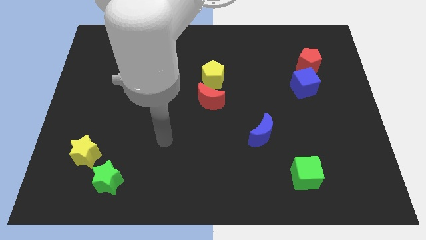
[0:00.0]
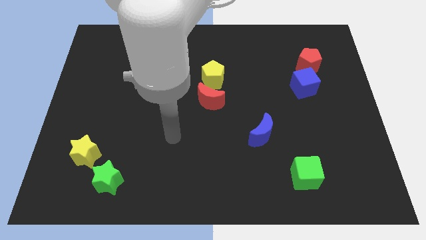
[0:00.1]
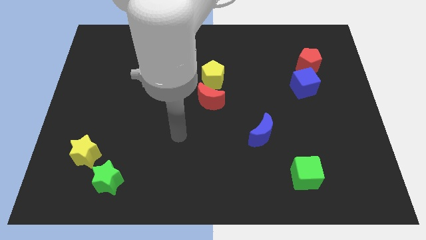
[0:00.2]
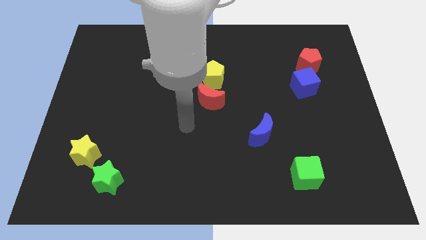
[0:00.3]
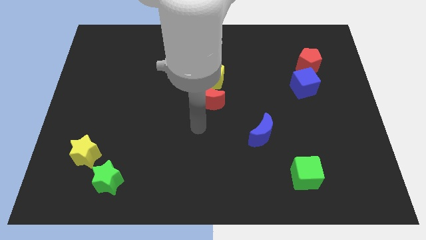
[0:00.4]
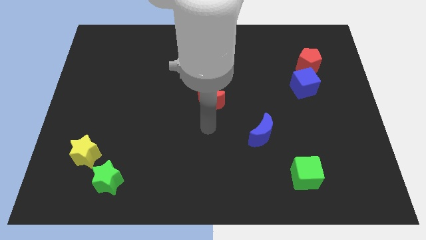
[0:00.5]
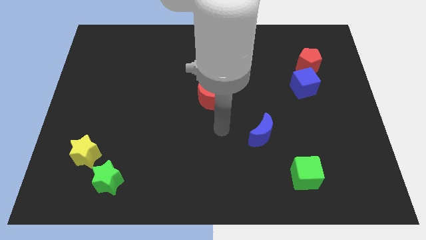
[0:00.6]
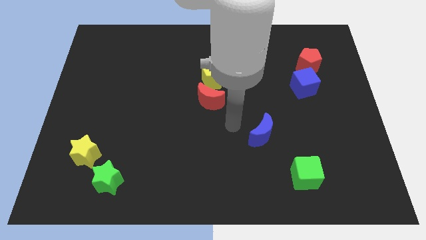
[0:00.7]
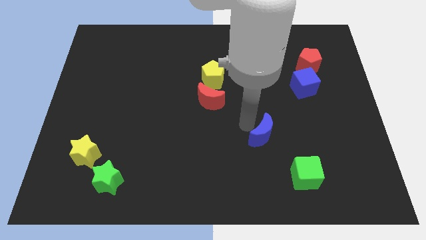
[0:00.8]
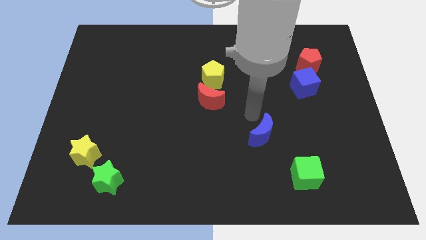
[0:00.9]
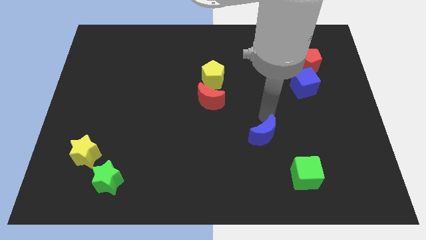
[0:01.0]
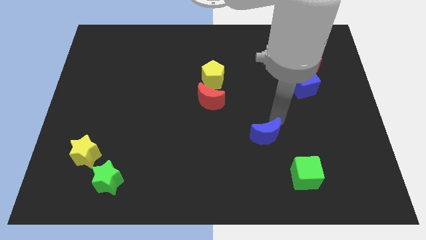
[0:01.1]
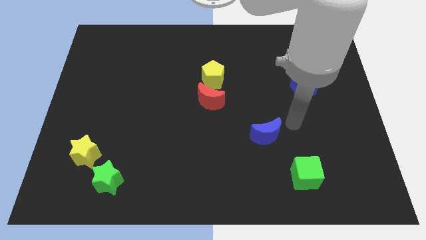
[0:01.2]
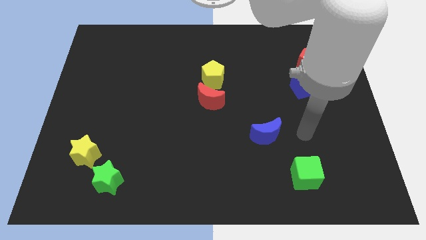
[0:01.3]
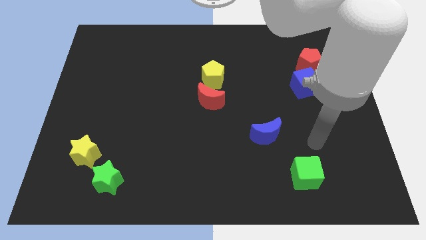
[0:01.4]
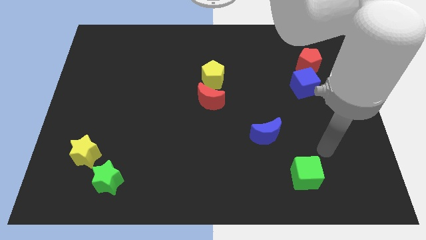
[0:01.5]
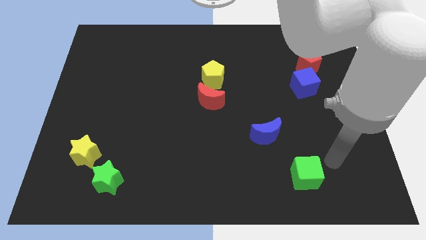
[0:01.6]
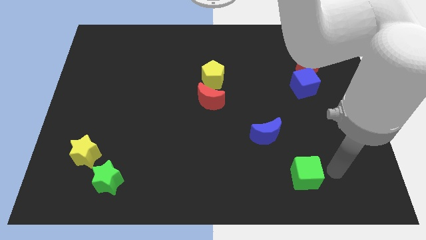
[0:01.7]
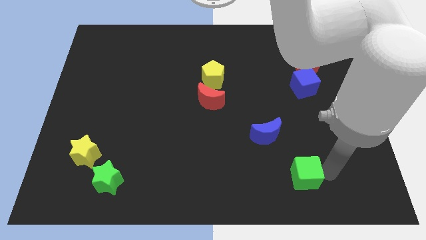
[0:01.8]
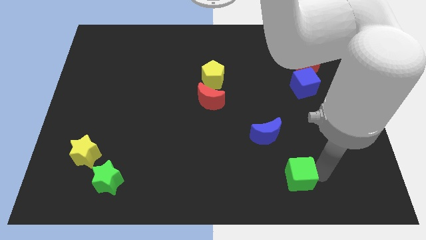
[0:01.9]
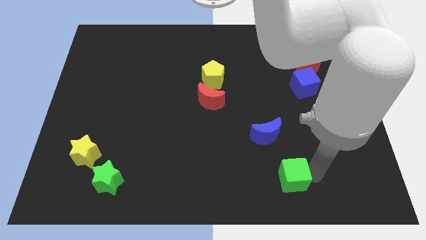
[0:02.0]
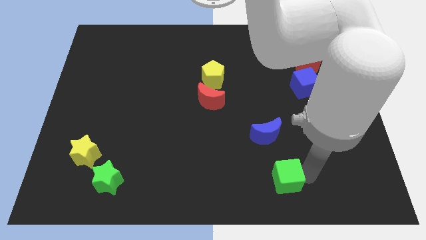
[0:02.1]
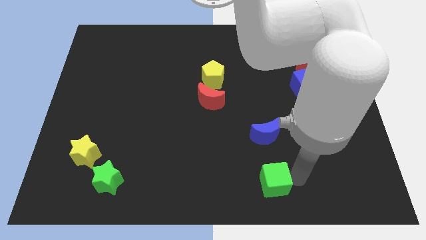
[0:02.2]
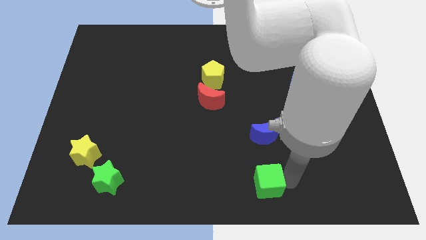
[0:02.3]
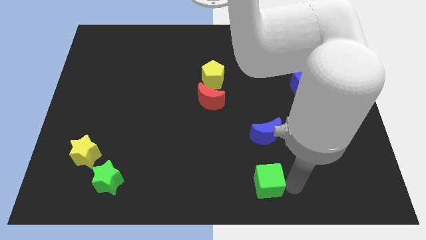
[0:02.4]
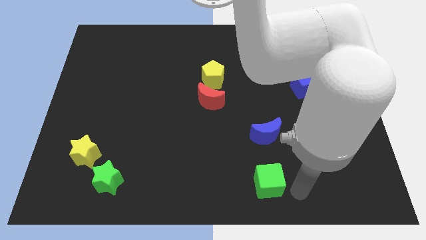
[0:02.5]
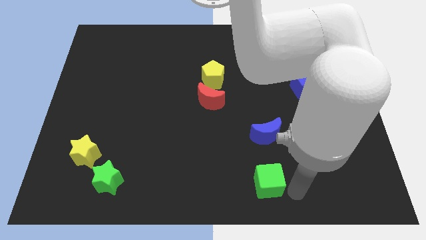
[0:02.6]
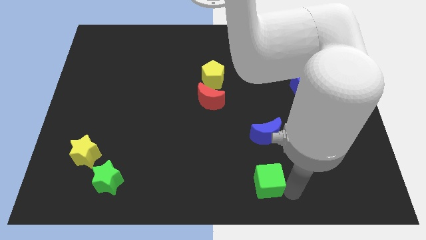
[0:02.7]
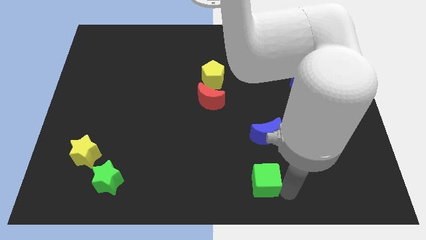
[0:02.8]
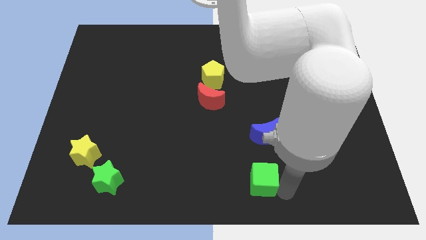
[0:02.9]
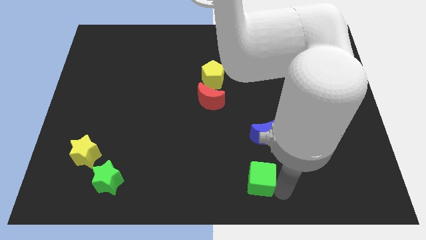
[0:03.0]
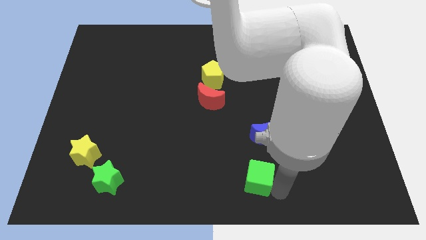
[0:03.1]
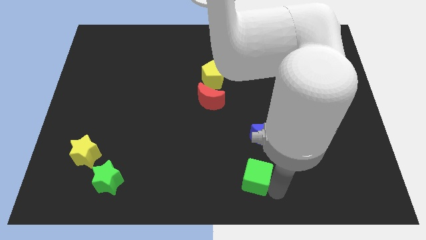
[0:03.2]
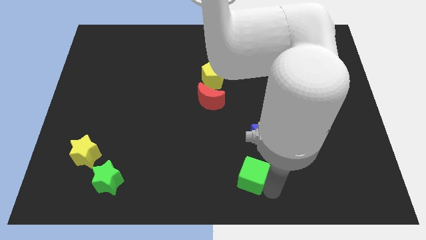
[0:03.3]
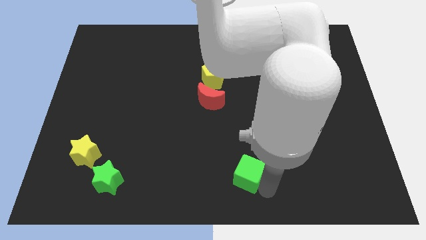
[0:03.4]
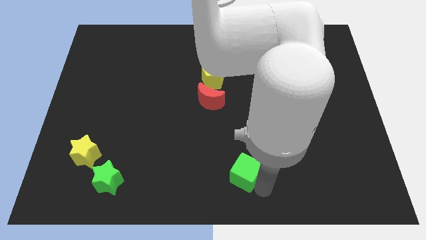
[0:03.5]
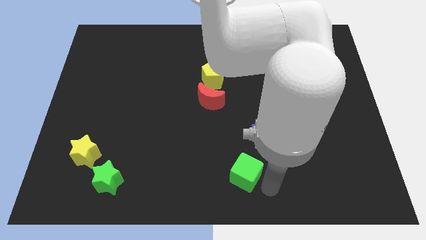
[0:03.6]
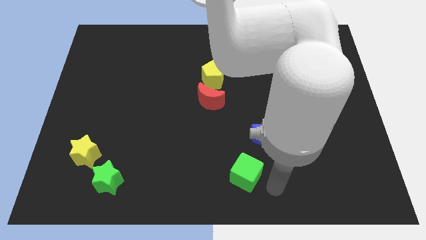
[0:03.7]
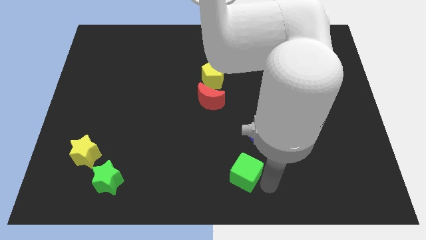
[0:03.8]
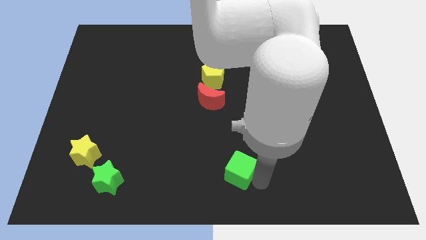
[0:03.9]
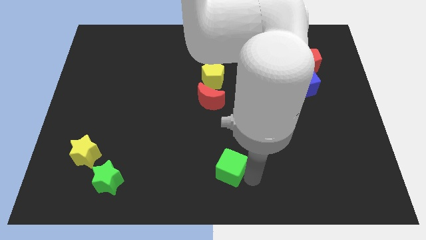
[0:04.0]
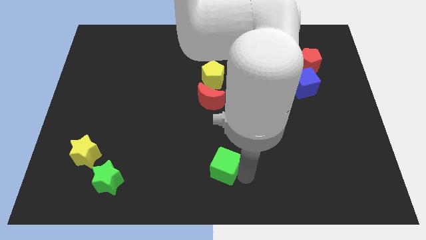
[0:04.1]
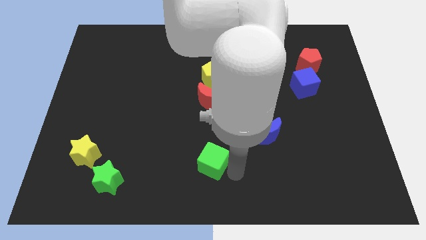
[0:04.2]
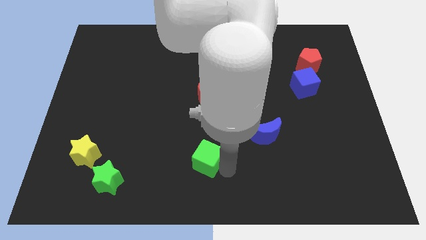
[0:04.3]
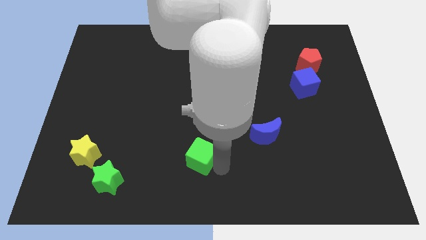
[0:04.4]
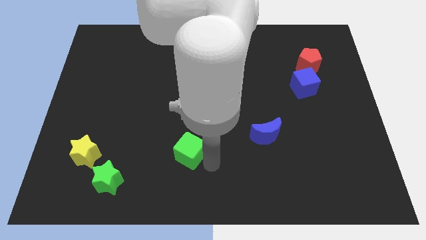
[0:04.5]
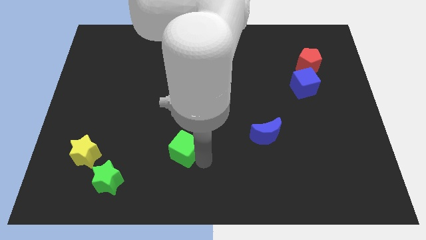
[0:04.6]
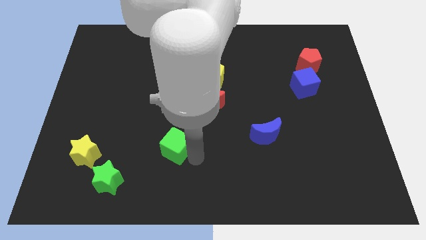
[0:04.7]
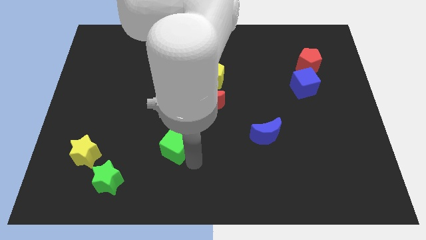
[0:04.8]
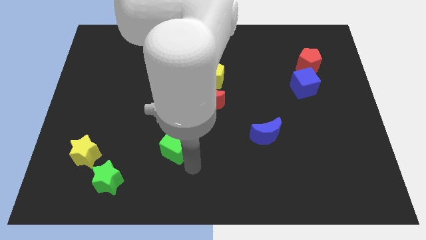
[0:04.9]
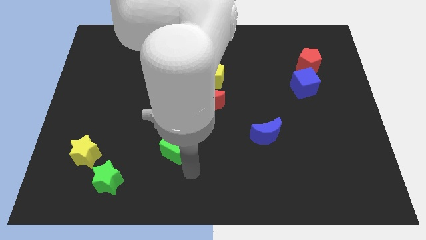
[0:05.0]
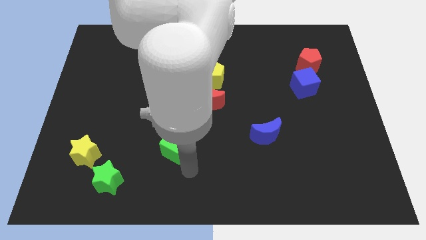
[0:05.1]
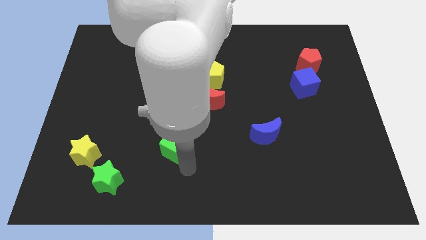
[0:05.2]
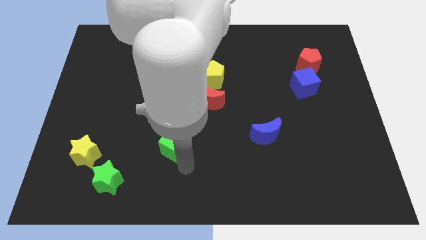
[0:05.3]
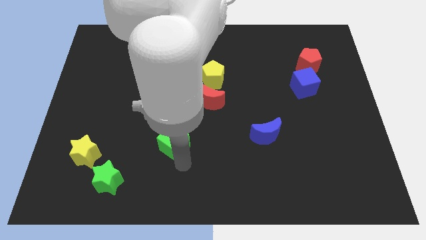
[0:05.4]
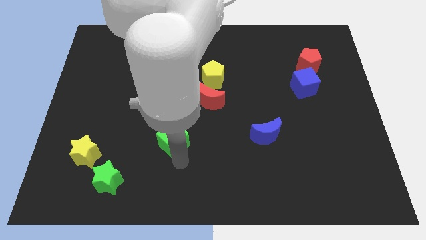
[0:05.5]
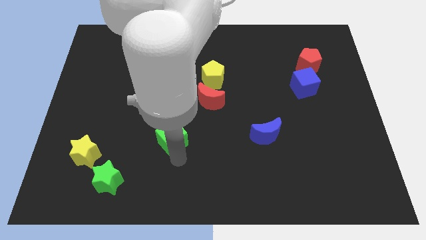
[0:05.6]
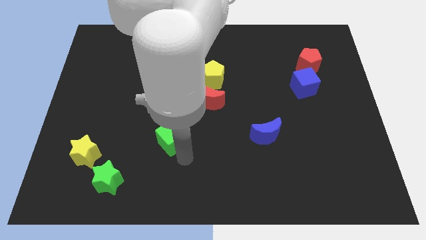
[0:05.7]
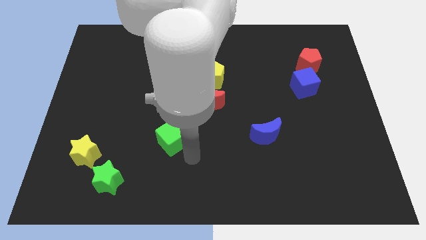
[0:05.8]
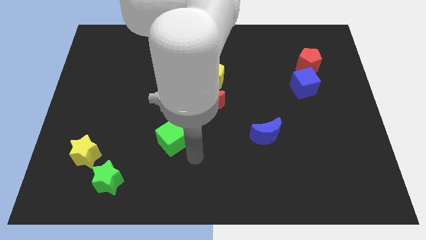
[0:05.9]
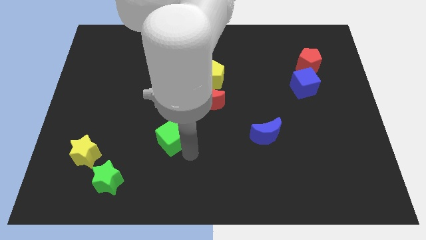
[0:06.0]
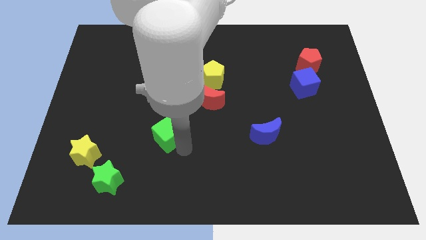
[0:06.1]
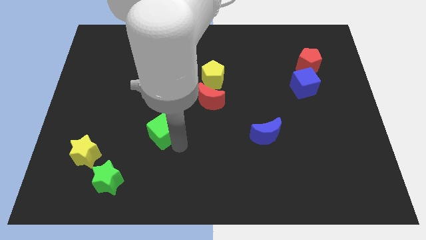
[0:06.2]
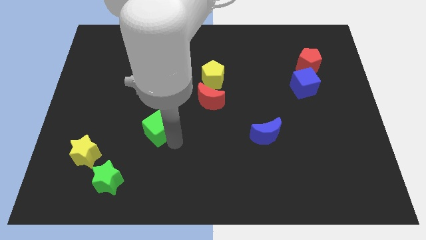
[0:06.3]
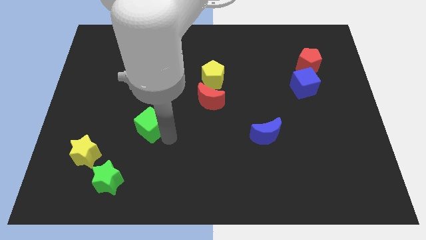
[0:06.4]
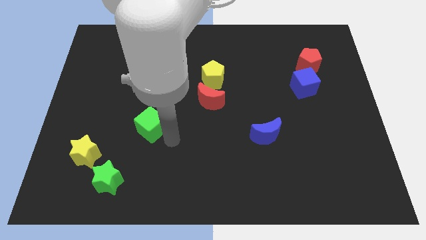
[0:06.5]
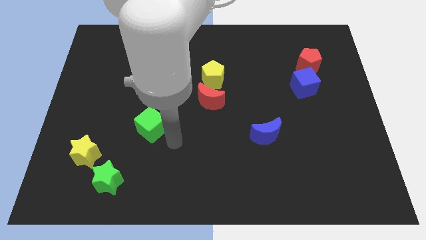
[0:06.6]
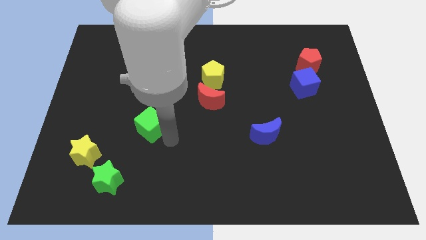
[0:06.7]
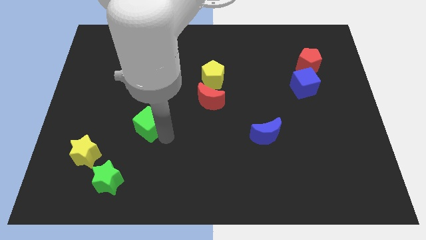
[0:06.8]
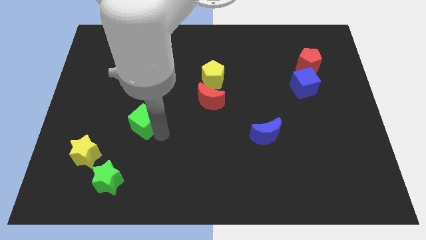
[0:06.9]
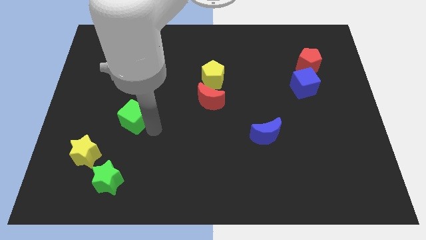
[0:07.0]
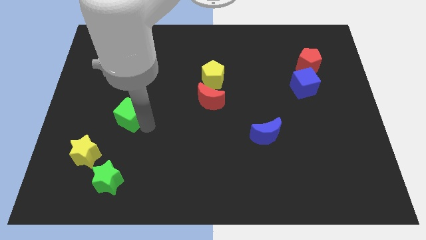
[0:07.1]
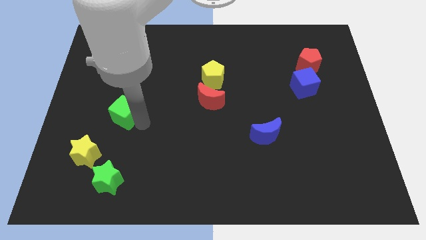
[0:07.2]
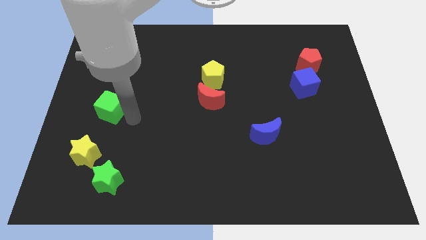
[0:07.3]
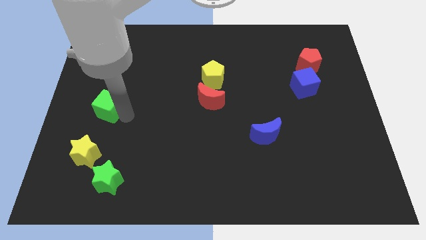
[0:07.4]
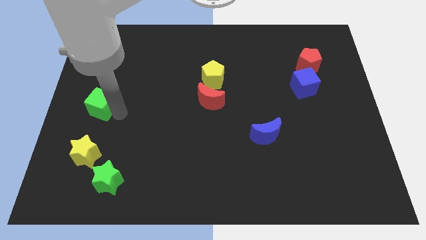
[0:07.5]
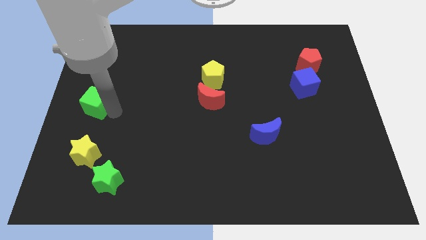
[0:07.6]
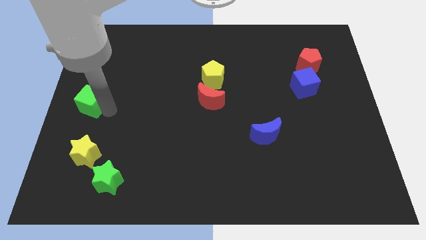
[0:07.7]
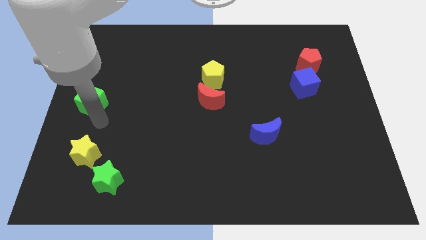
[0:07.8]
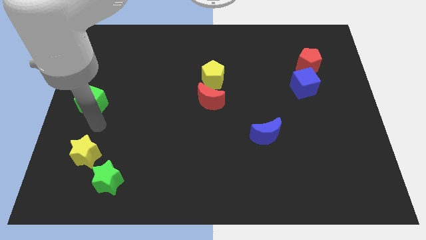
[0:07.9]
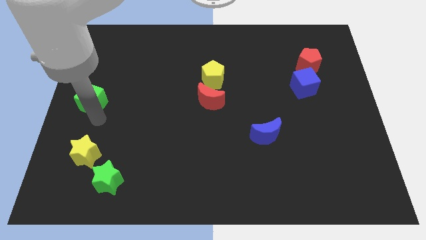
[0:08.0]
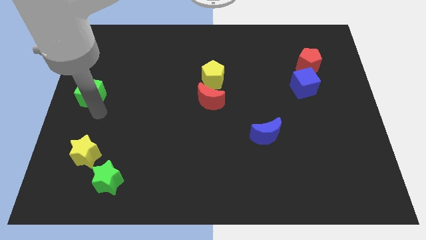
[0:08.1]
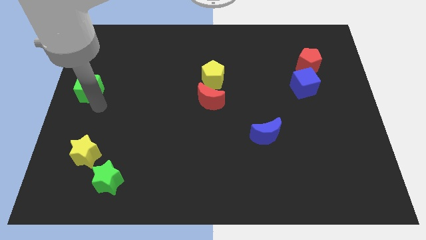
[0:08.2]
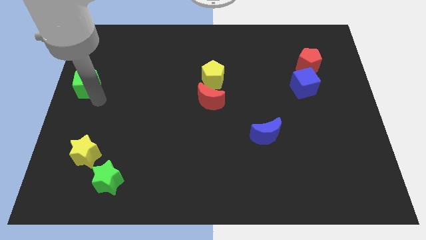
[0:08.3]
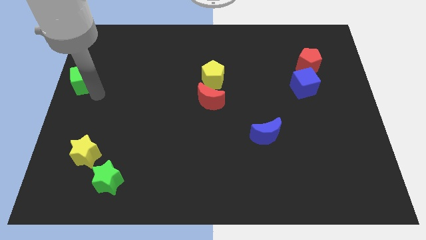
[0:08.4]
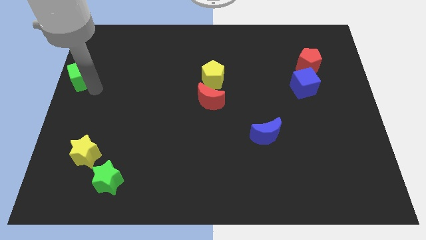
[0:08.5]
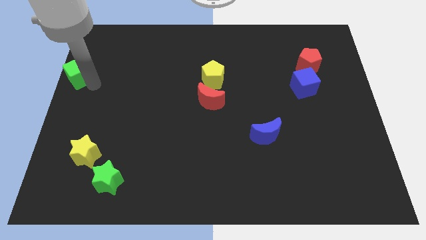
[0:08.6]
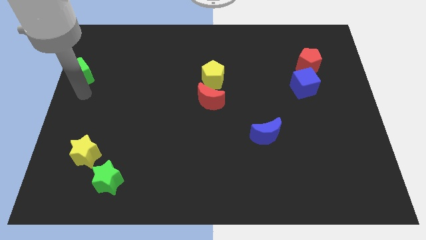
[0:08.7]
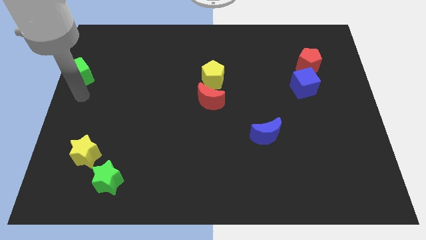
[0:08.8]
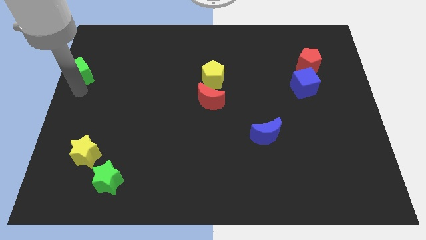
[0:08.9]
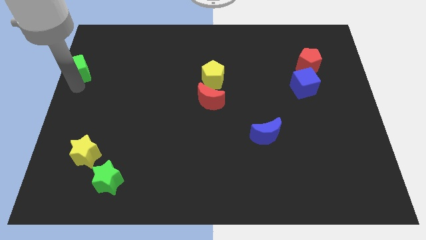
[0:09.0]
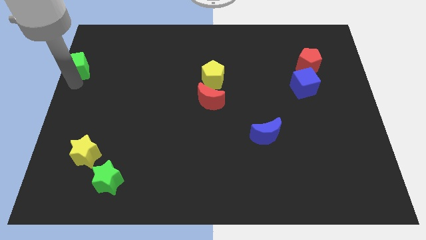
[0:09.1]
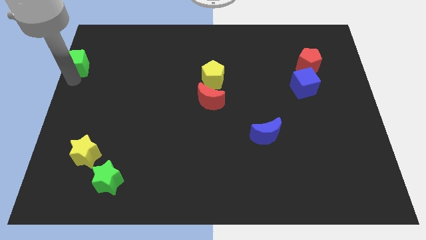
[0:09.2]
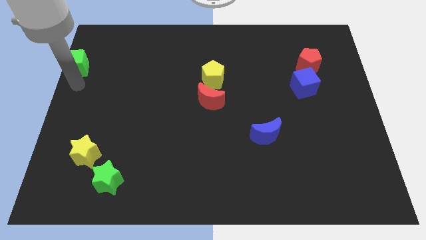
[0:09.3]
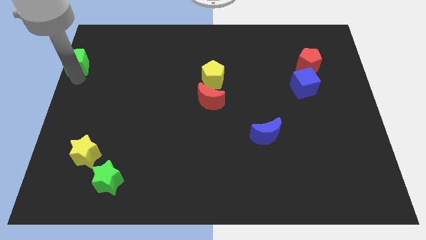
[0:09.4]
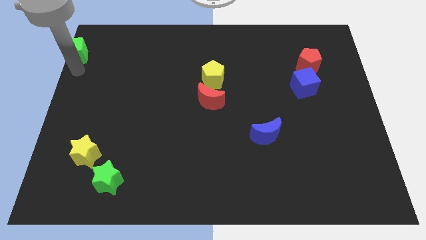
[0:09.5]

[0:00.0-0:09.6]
slide the green cube to the top left of the board
